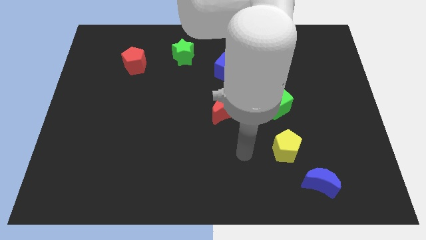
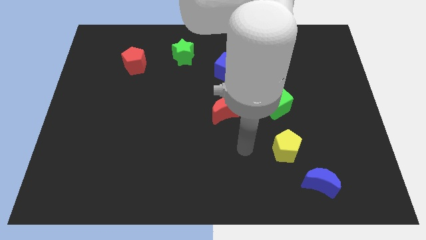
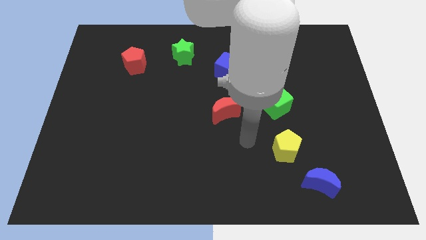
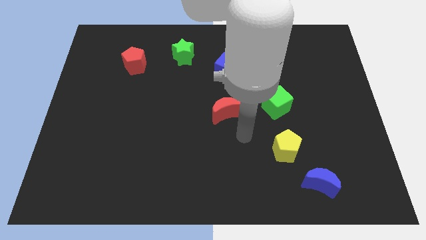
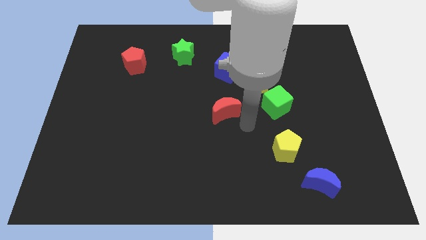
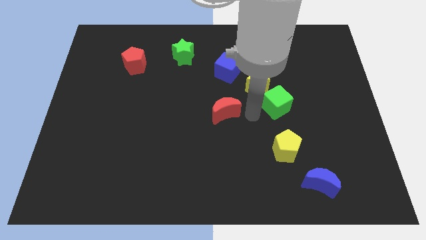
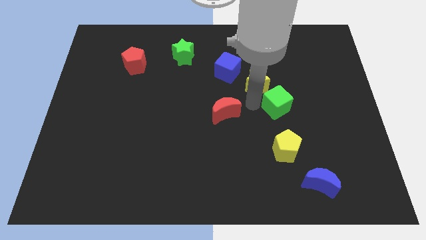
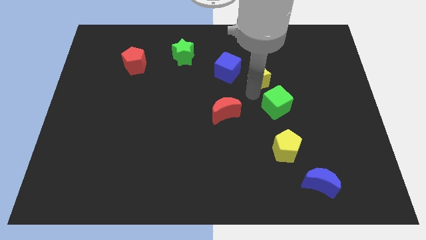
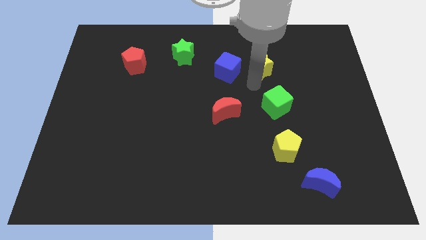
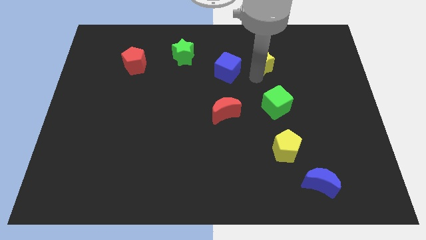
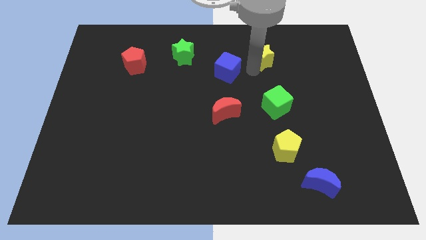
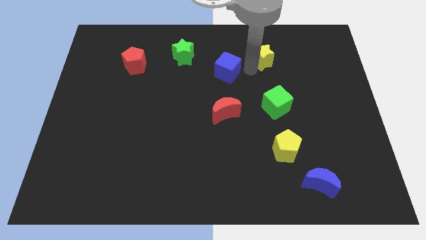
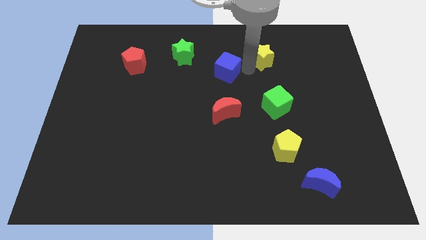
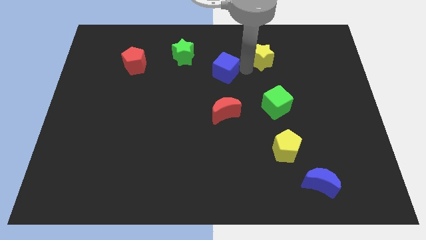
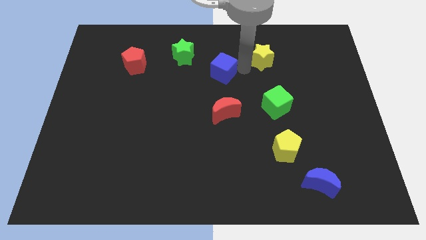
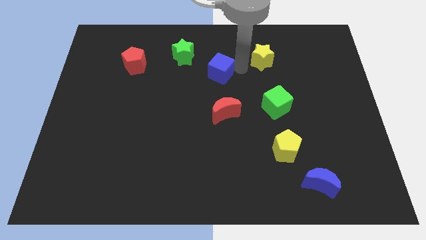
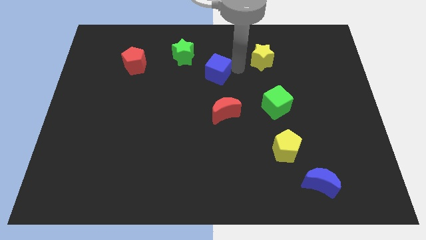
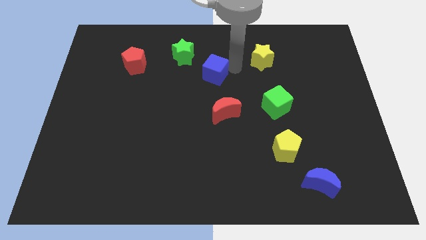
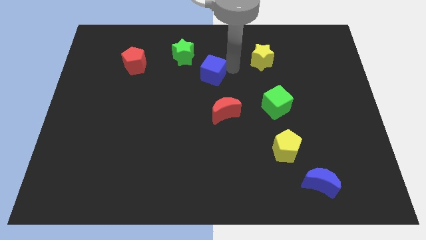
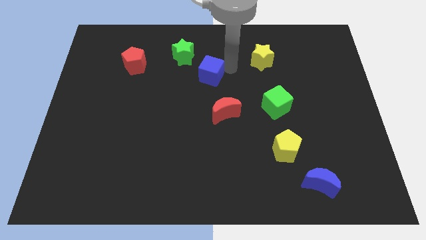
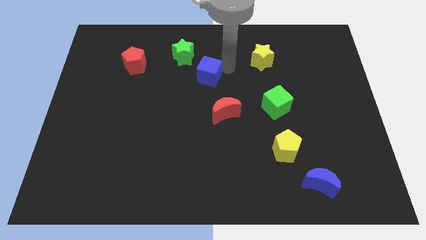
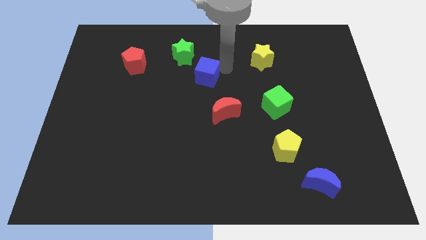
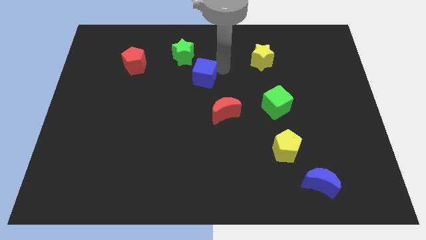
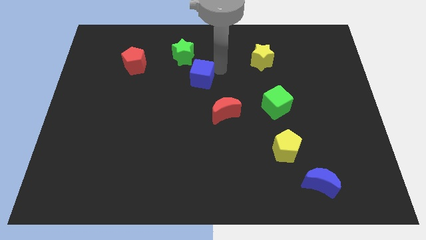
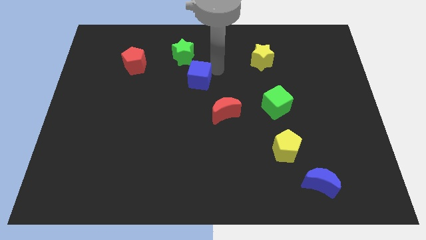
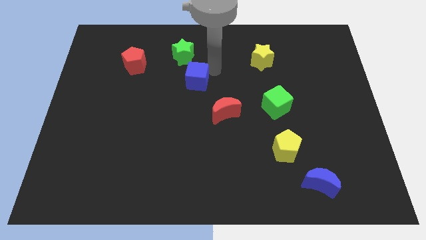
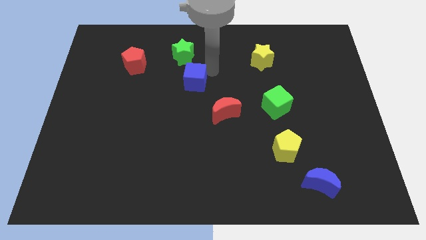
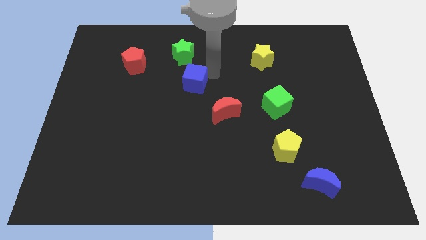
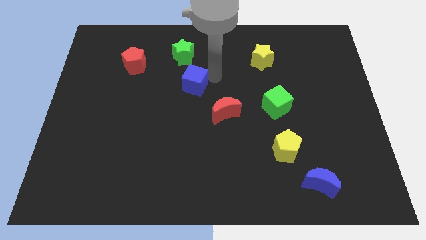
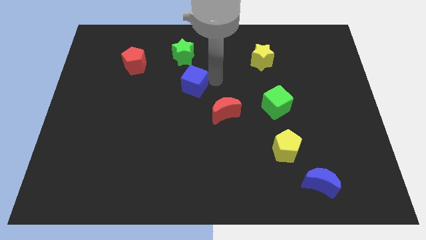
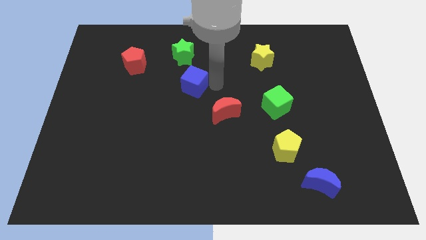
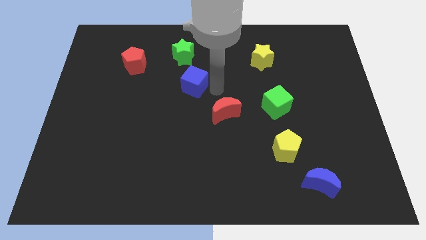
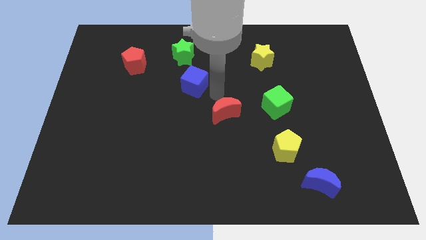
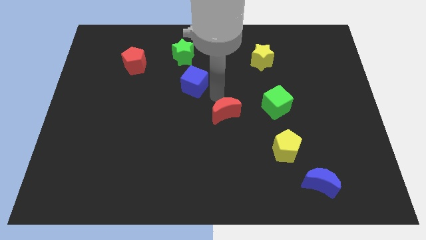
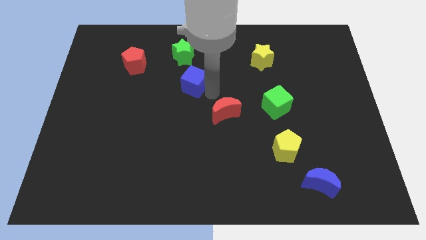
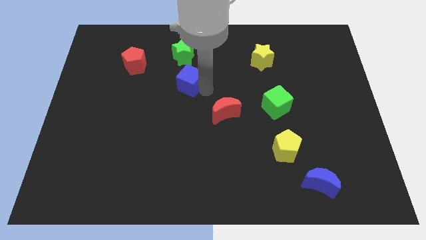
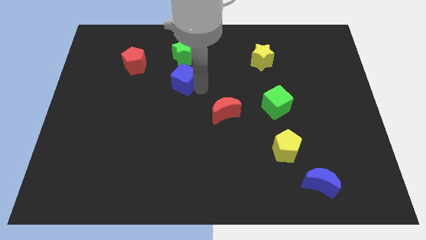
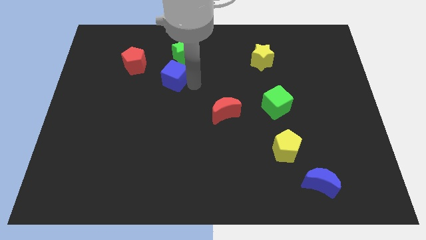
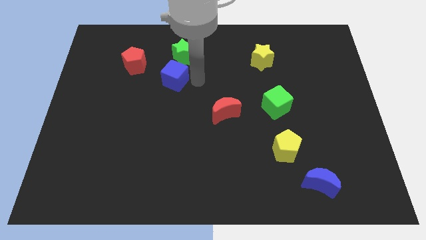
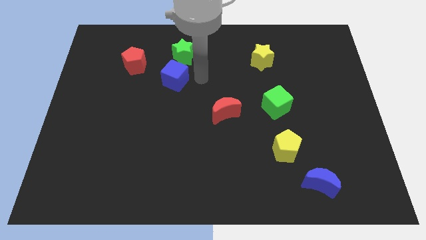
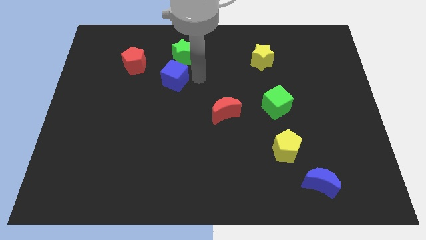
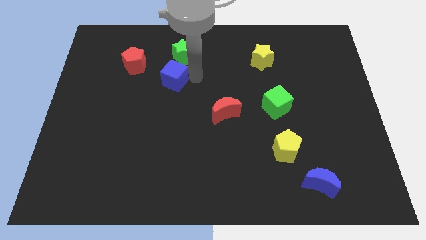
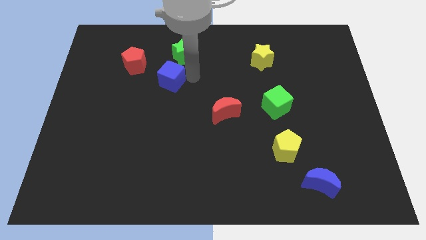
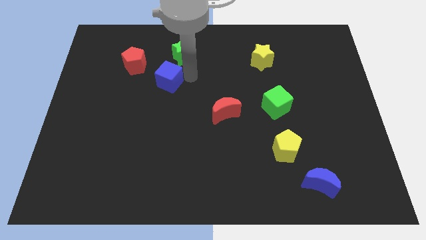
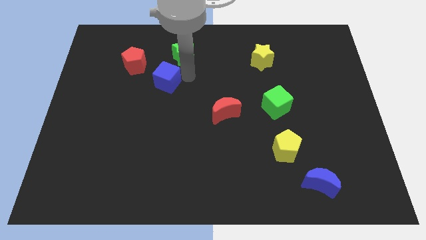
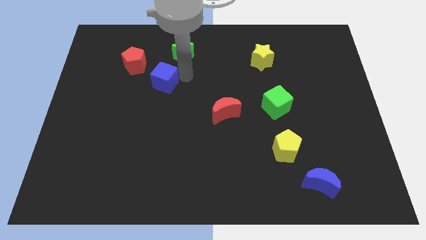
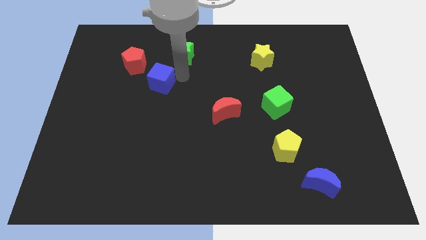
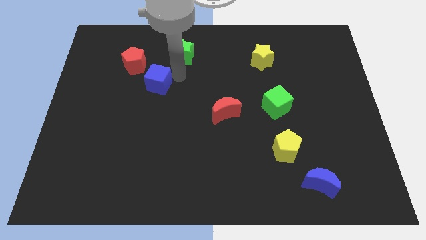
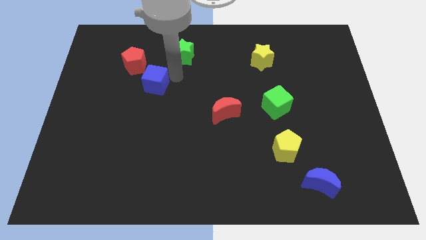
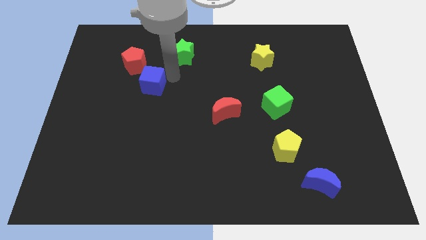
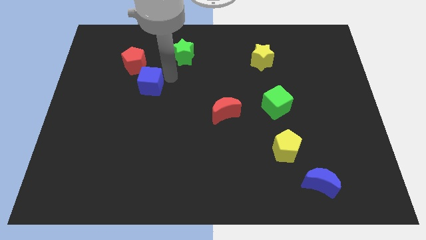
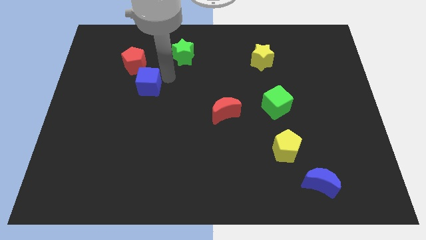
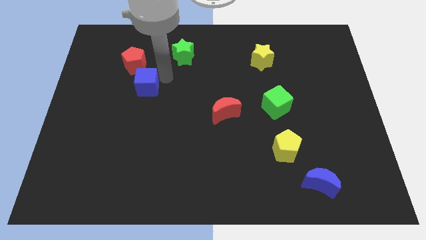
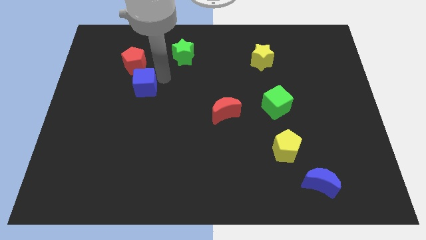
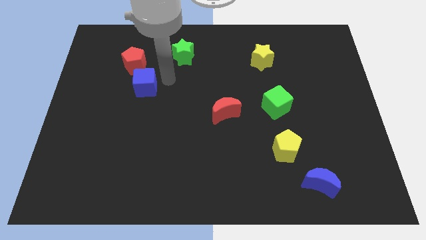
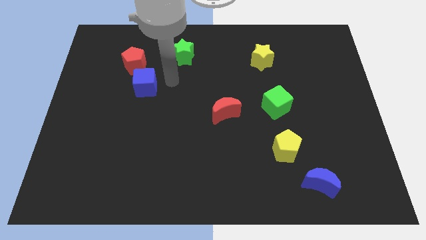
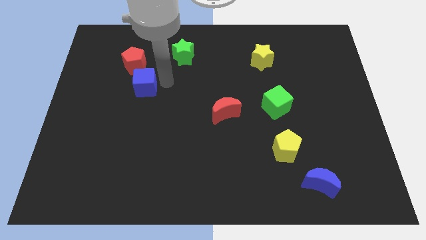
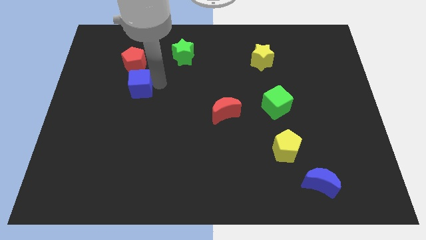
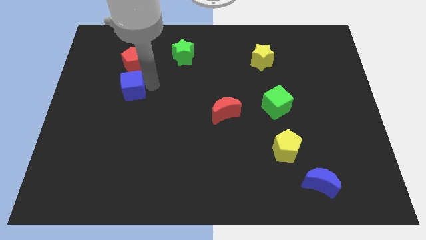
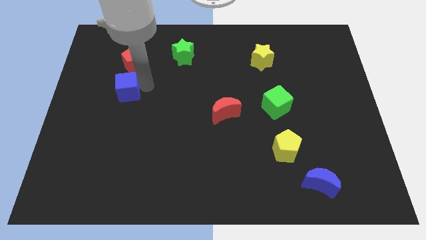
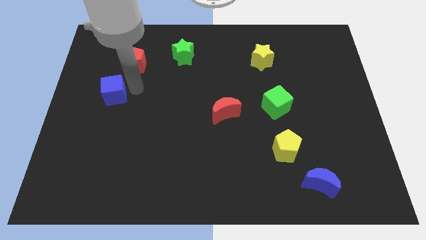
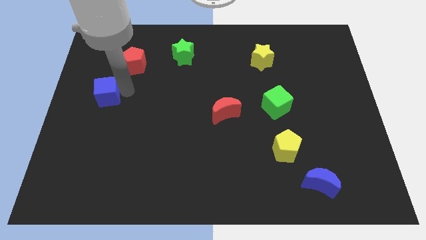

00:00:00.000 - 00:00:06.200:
move the blue cube to the left side of the board

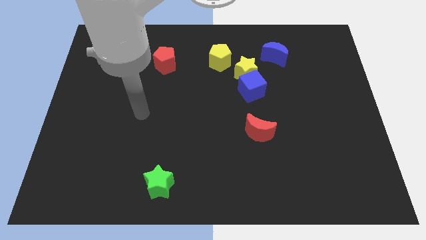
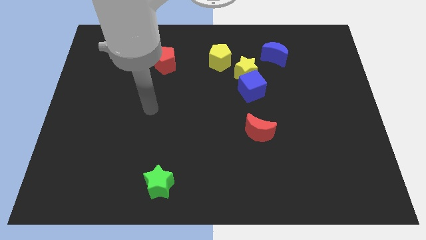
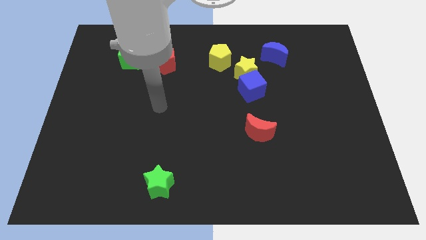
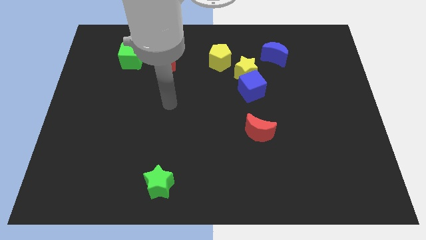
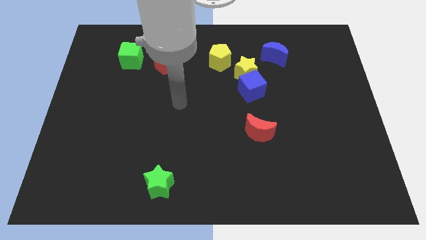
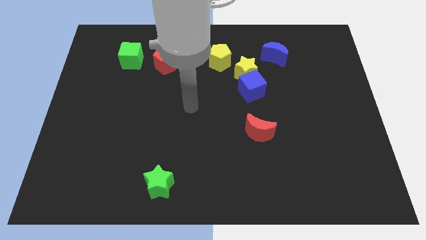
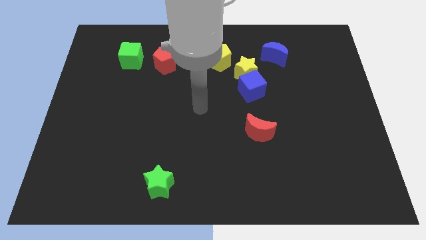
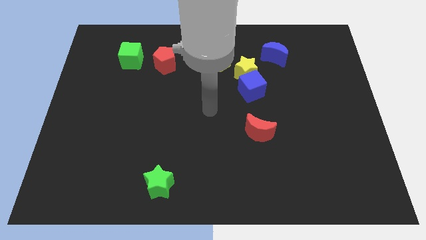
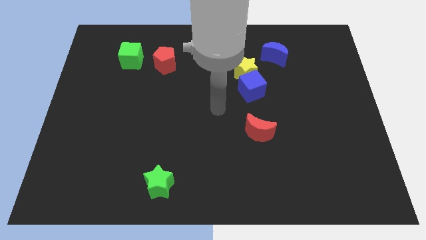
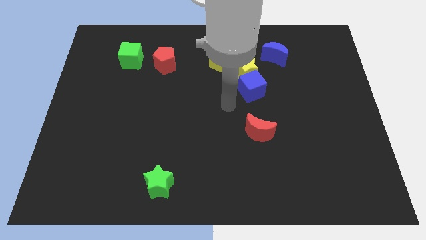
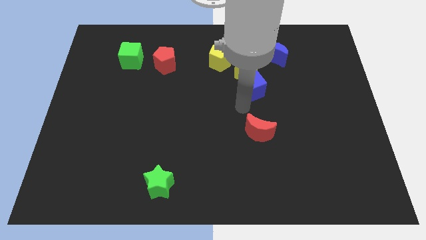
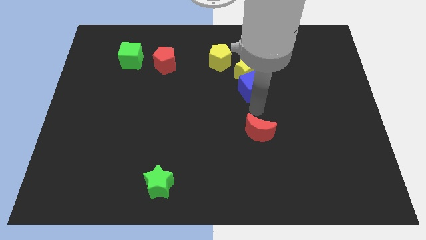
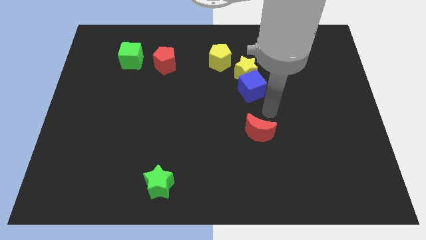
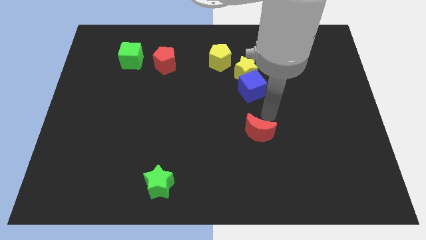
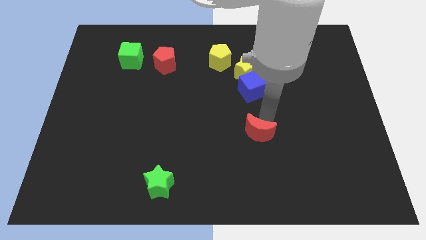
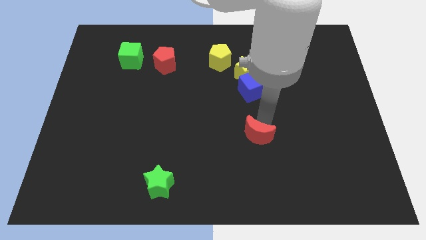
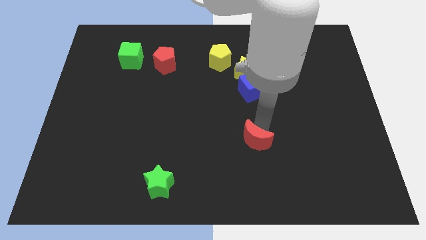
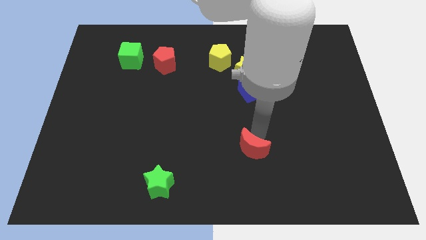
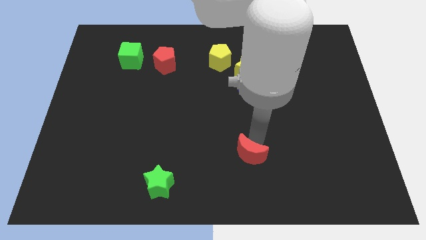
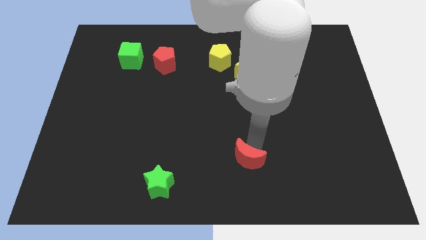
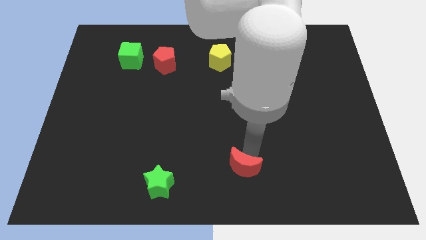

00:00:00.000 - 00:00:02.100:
push the red moon to the bottom
